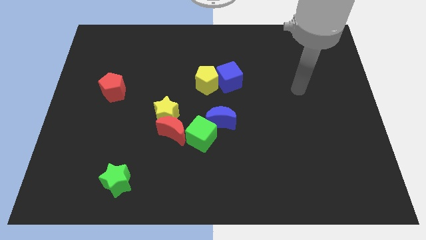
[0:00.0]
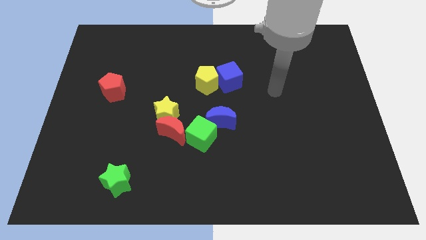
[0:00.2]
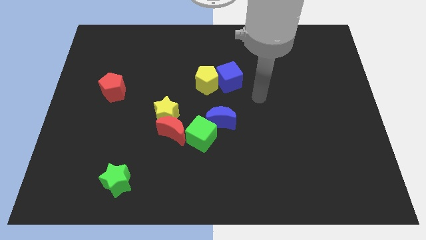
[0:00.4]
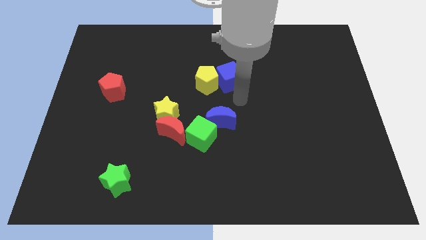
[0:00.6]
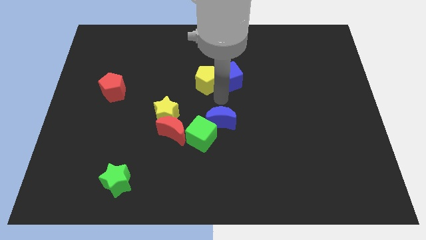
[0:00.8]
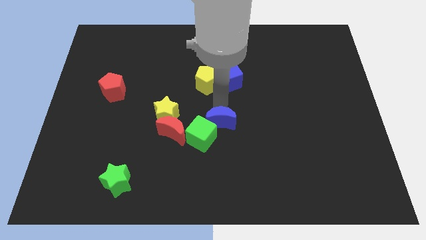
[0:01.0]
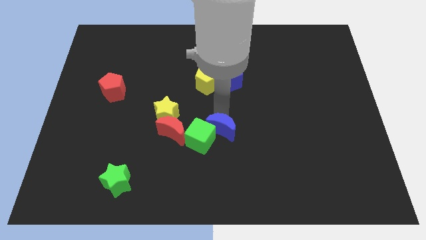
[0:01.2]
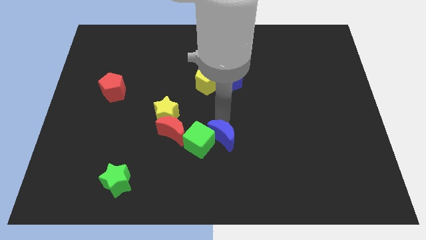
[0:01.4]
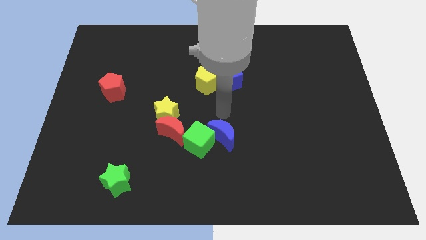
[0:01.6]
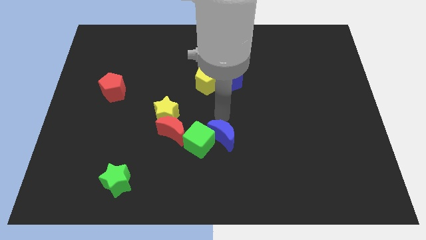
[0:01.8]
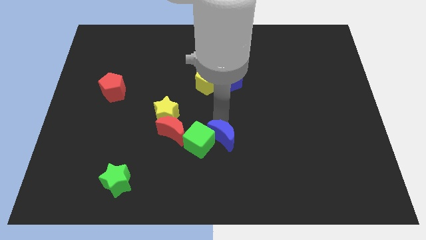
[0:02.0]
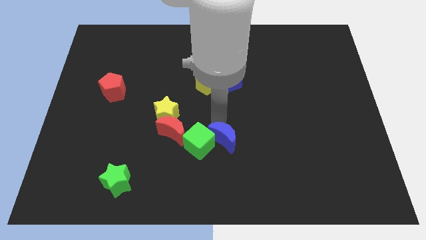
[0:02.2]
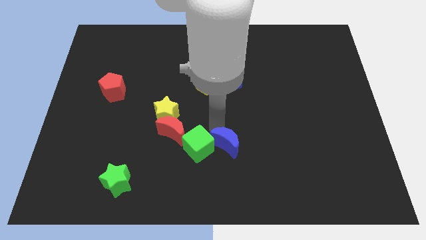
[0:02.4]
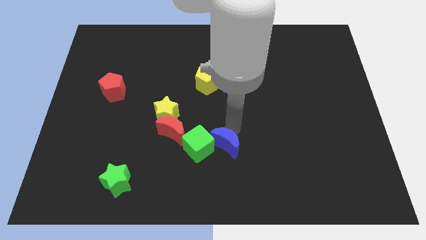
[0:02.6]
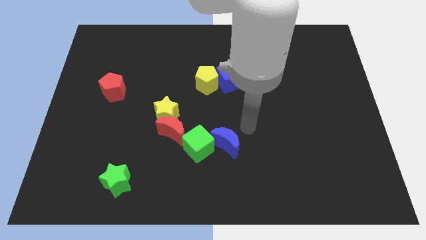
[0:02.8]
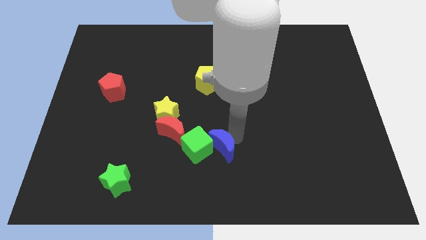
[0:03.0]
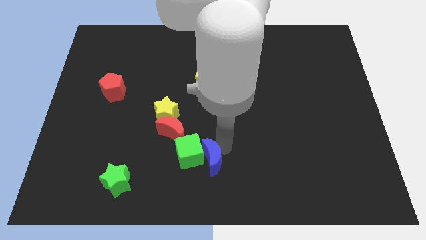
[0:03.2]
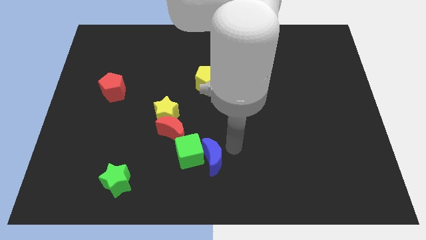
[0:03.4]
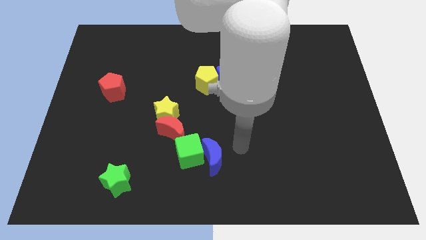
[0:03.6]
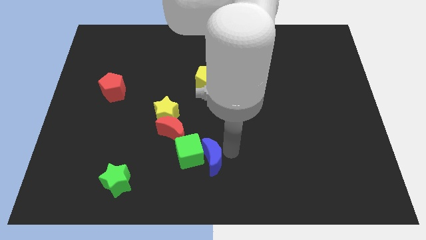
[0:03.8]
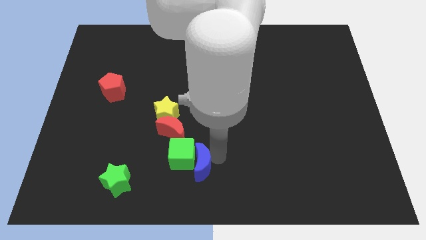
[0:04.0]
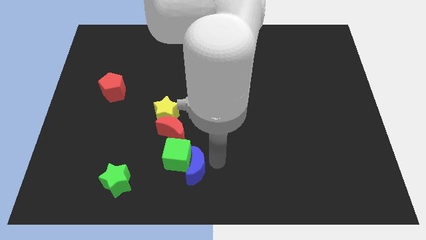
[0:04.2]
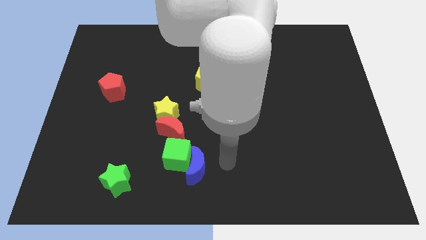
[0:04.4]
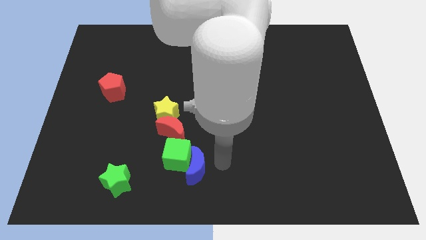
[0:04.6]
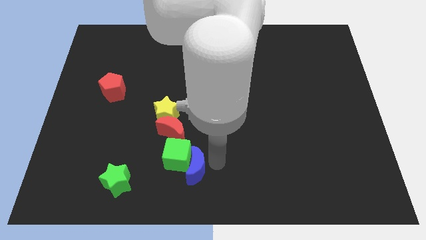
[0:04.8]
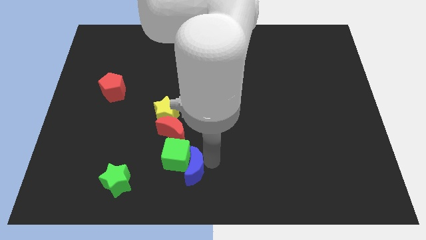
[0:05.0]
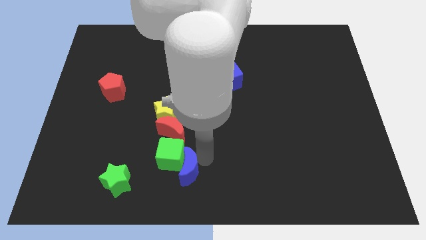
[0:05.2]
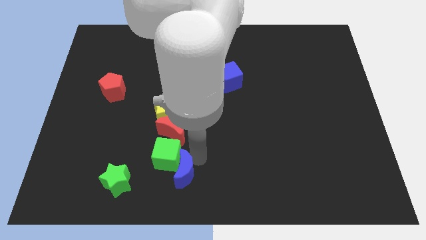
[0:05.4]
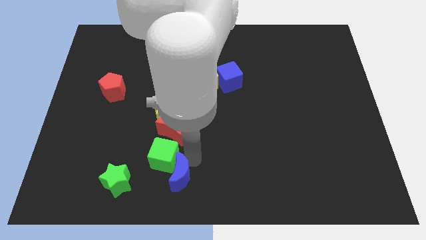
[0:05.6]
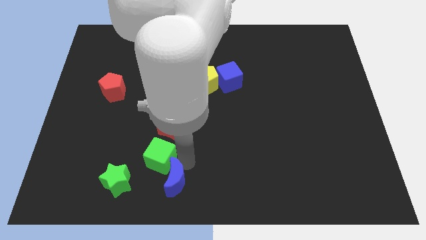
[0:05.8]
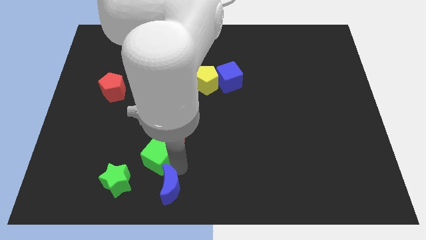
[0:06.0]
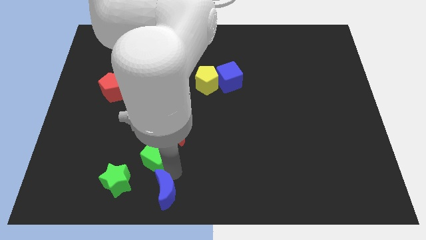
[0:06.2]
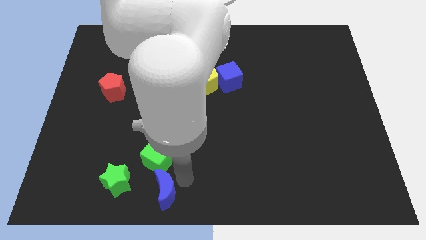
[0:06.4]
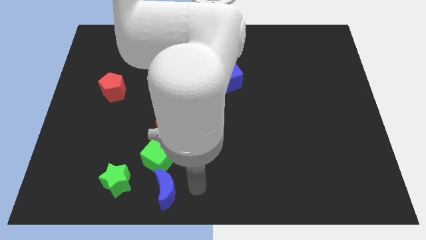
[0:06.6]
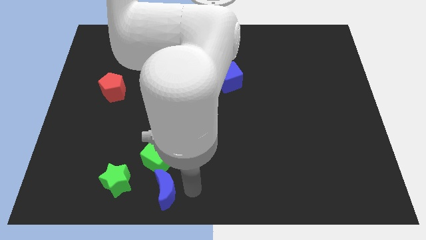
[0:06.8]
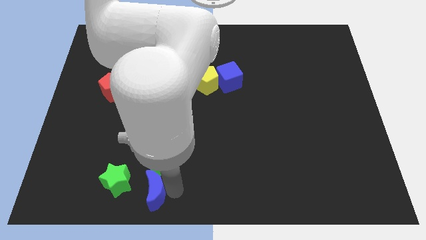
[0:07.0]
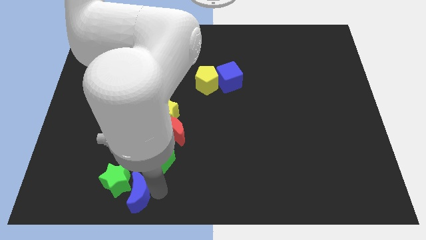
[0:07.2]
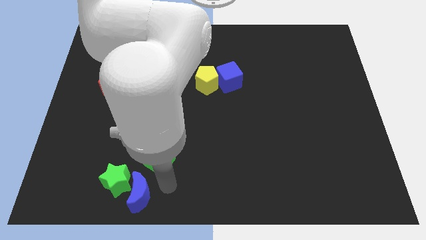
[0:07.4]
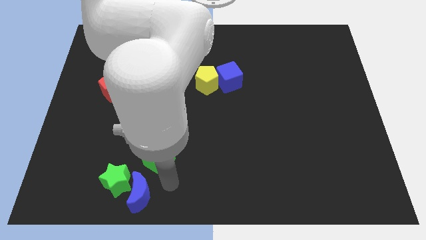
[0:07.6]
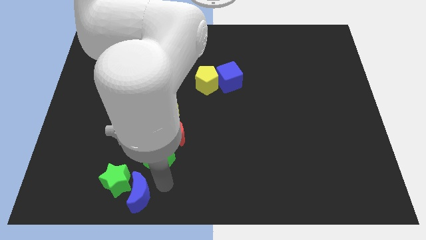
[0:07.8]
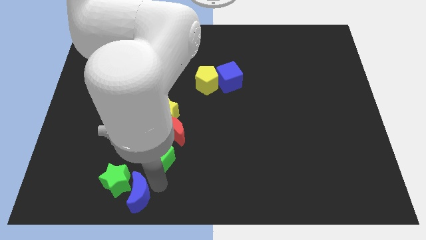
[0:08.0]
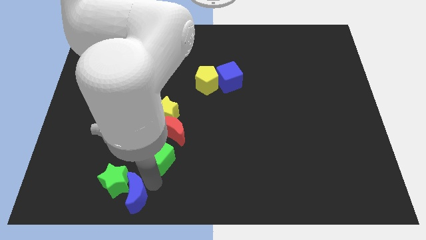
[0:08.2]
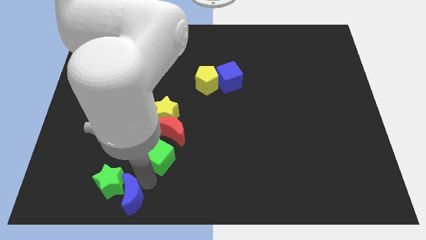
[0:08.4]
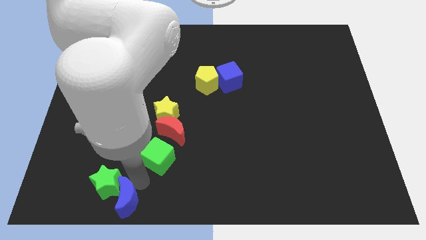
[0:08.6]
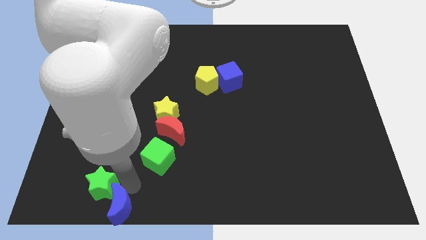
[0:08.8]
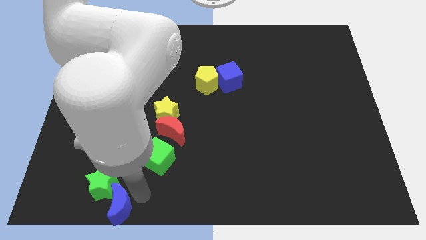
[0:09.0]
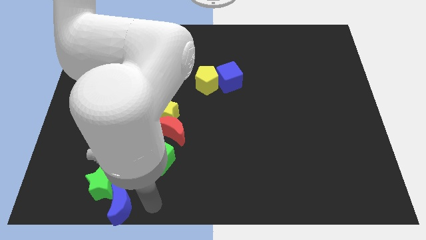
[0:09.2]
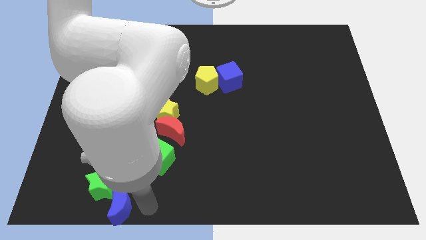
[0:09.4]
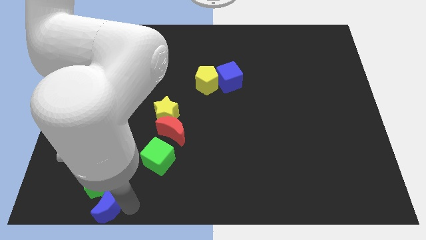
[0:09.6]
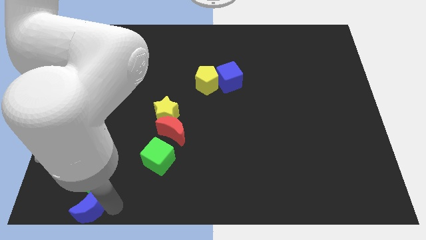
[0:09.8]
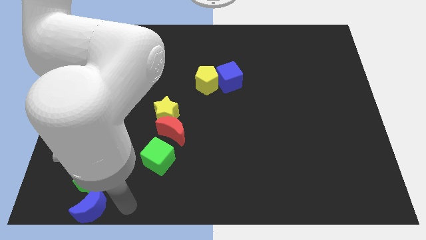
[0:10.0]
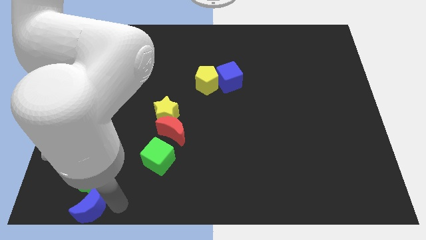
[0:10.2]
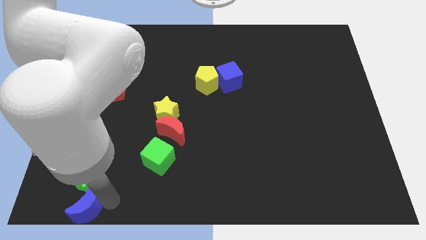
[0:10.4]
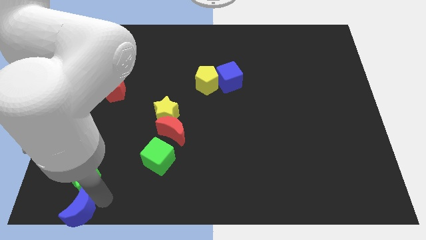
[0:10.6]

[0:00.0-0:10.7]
move the blue moon to the bottom left corner
